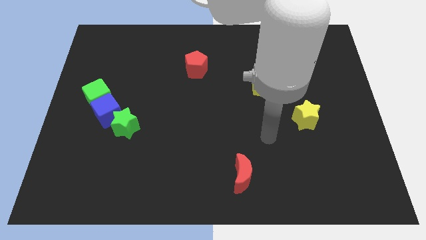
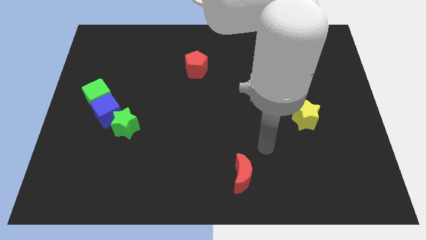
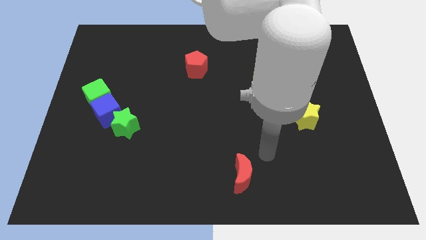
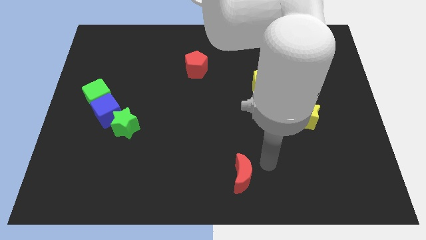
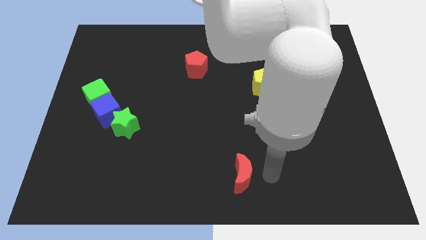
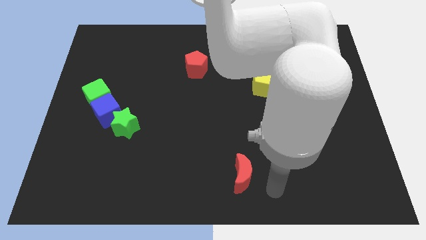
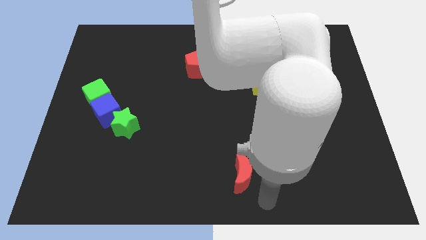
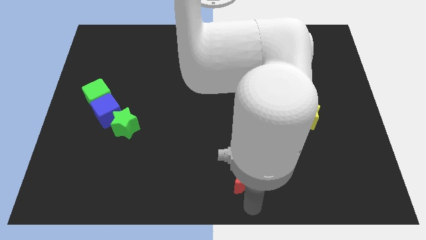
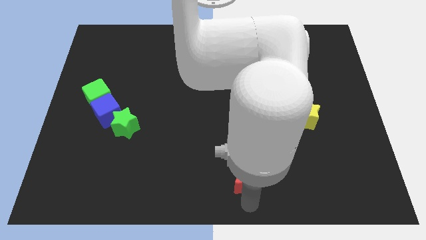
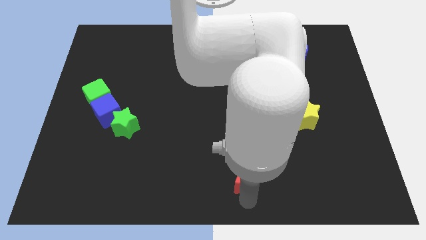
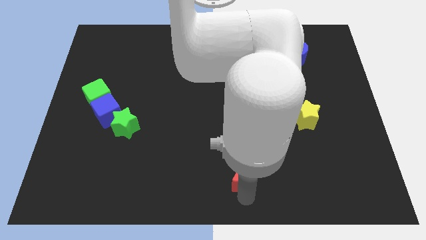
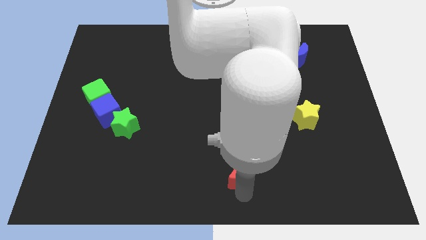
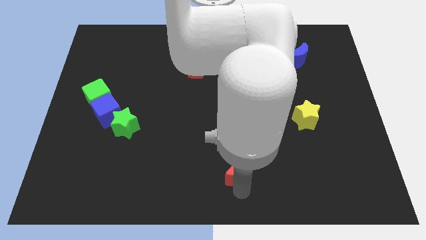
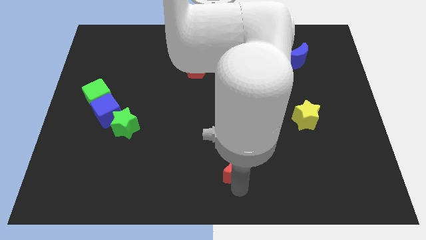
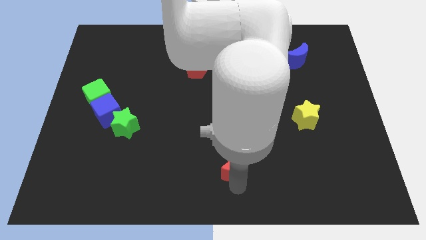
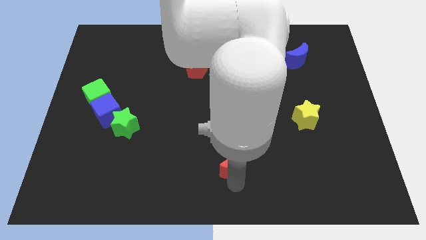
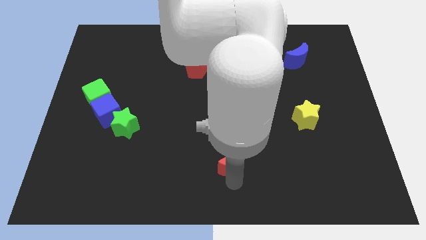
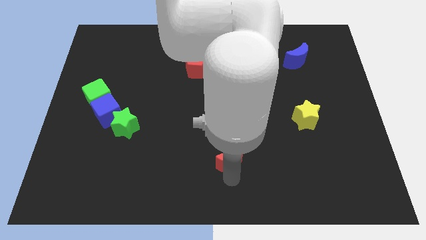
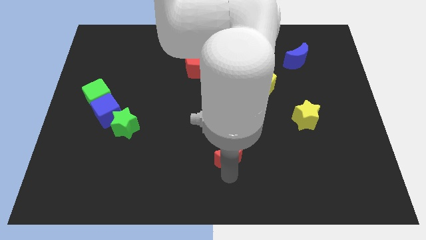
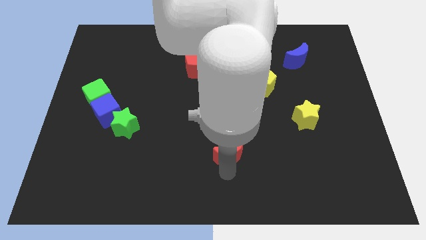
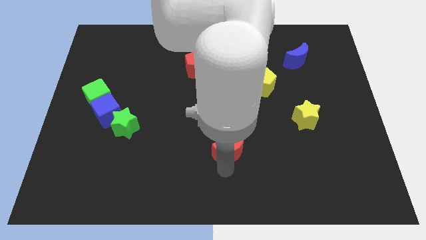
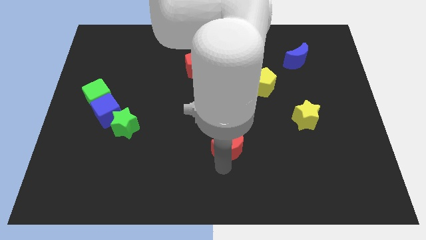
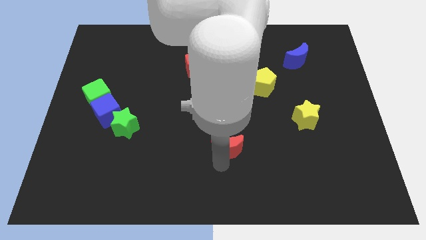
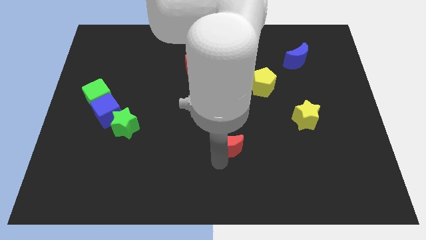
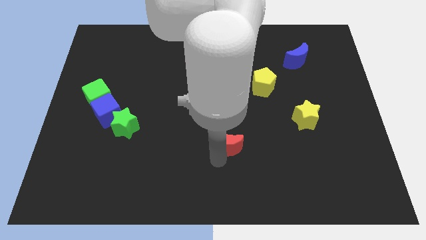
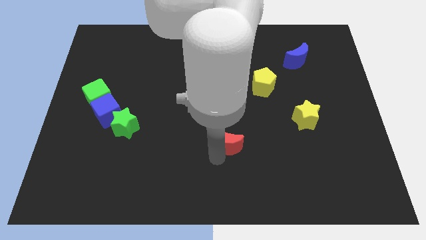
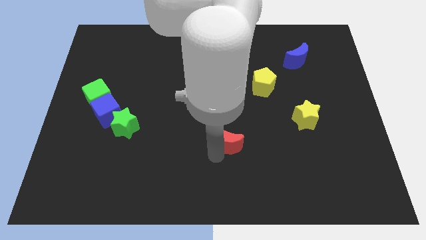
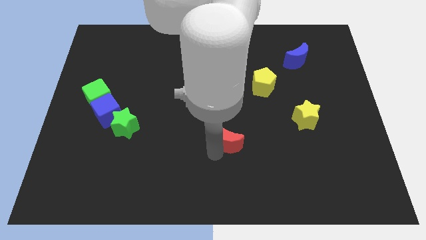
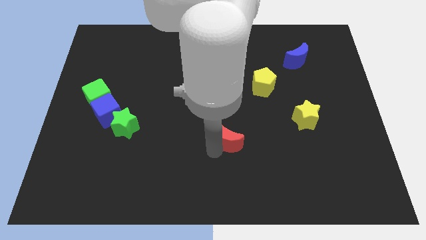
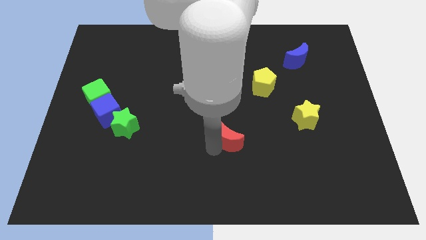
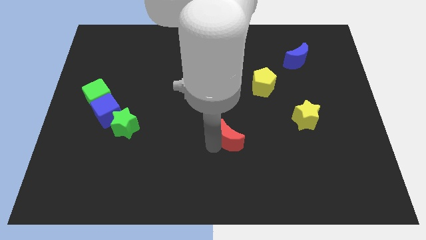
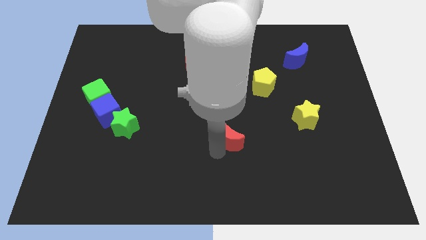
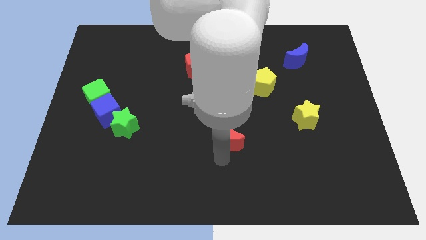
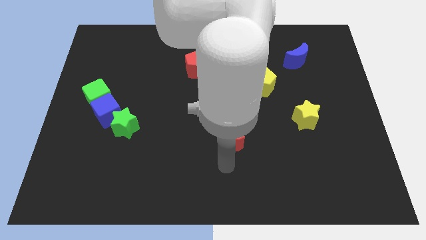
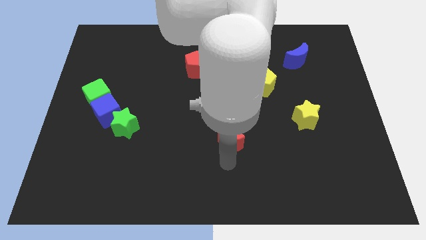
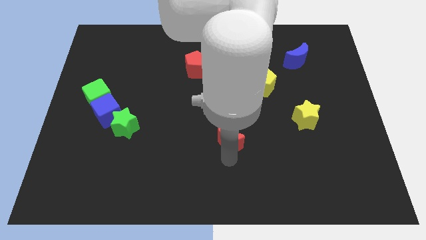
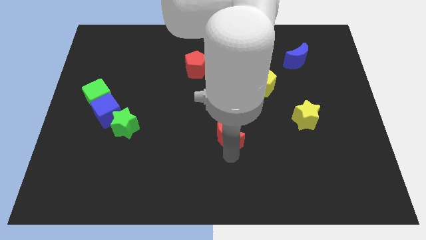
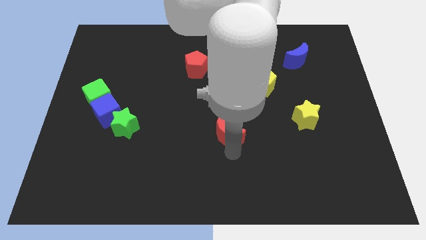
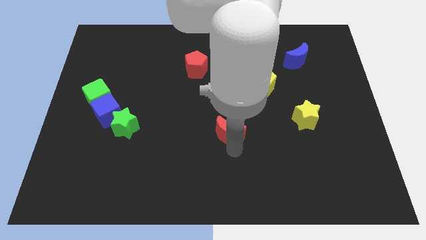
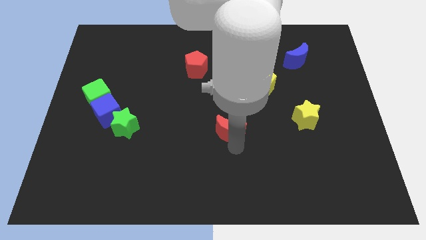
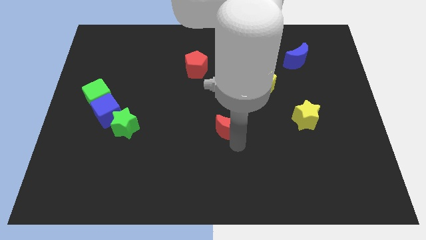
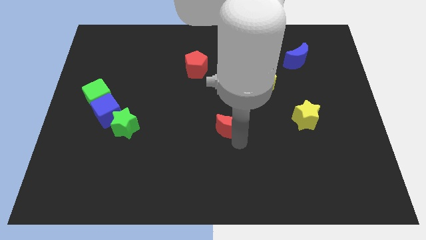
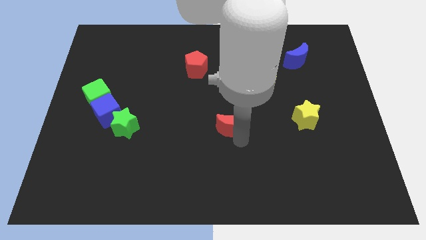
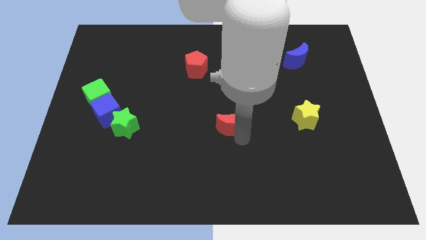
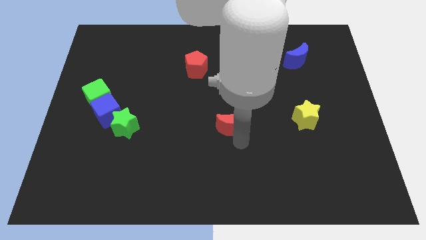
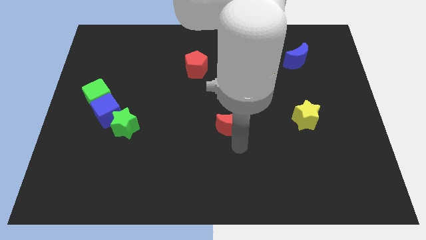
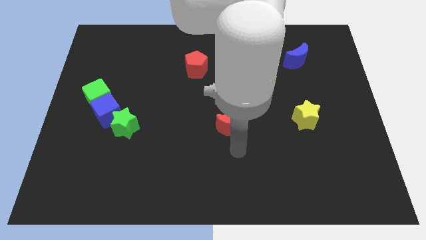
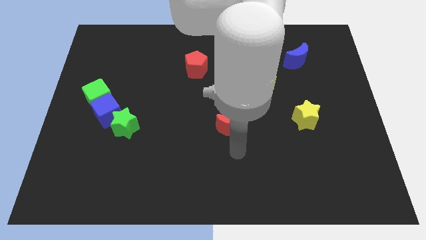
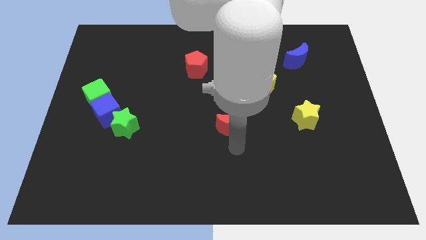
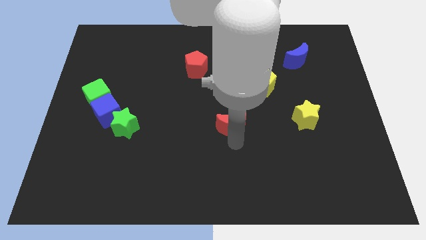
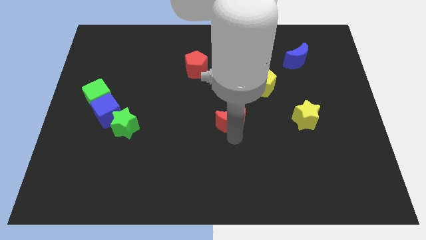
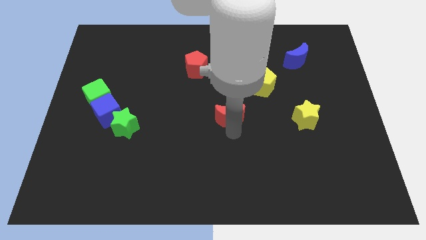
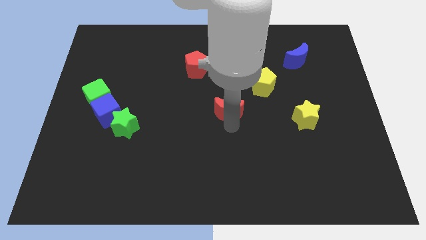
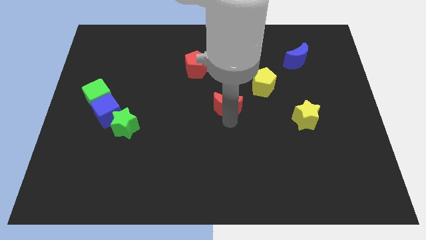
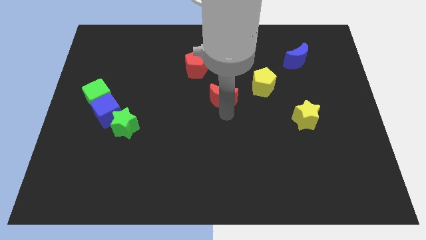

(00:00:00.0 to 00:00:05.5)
slide the red moon upwards

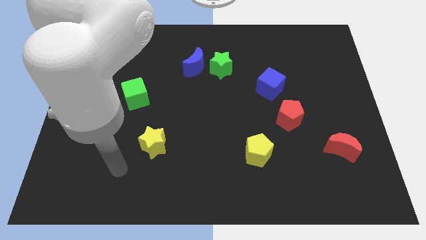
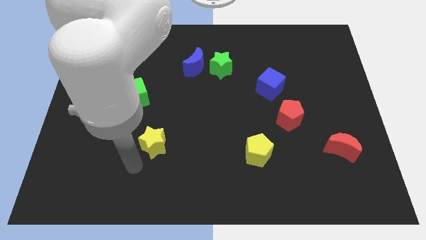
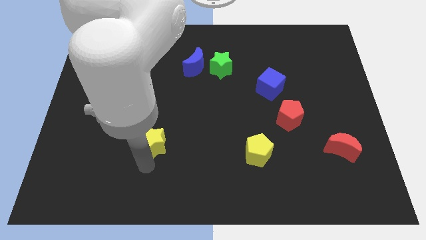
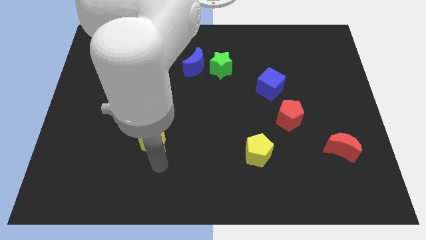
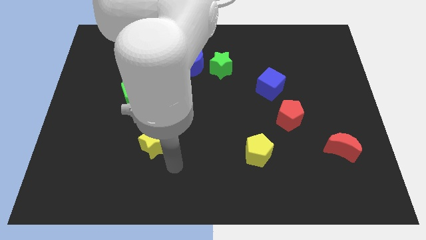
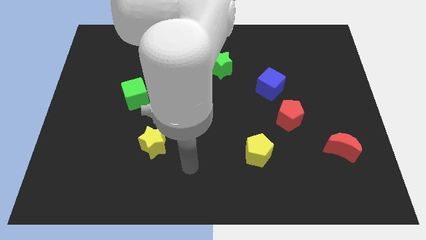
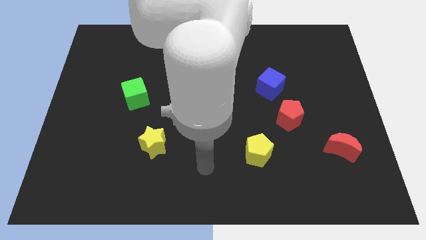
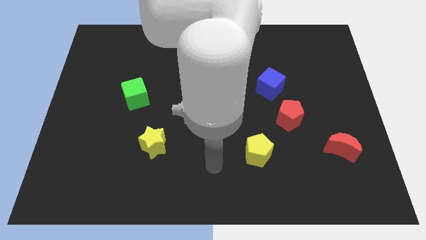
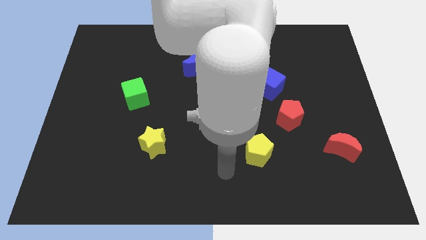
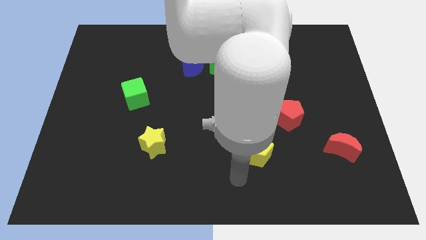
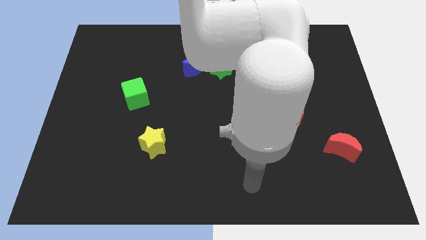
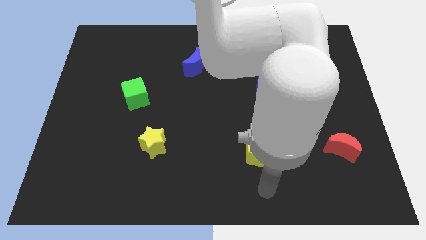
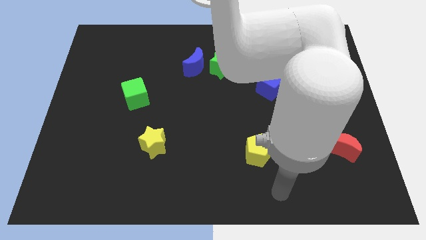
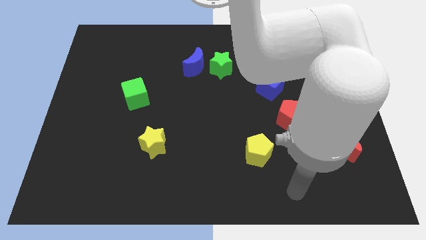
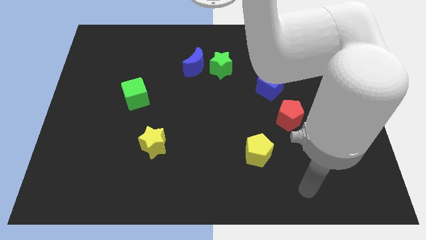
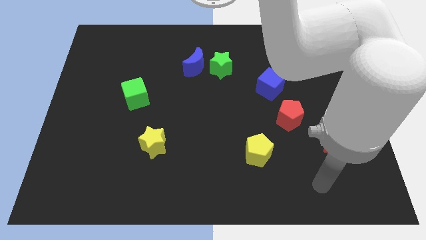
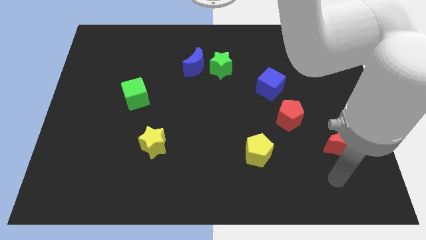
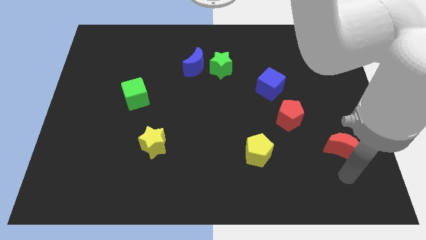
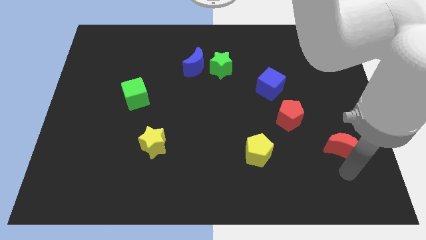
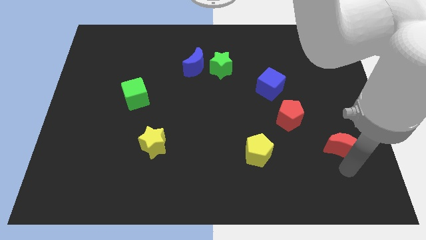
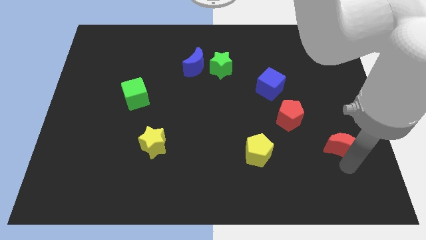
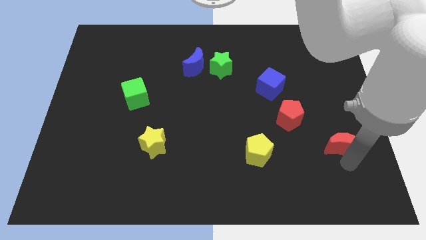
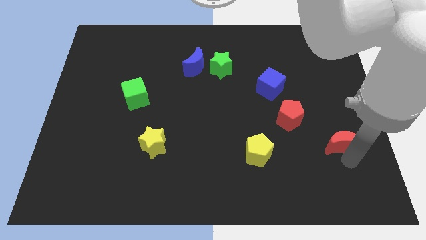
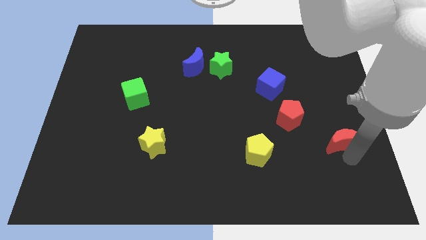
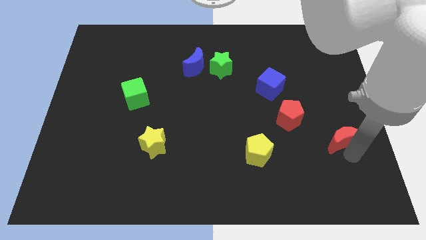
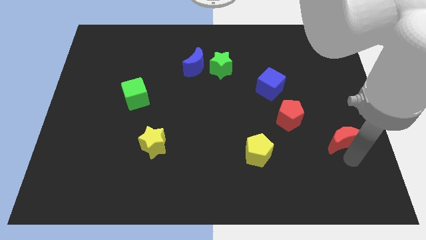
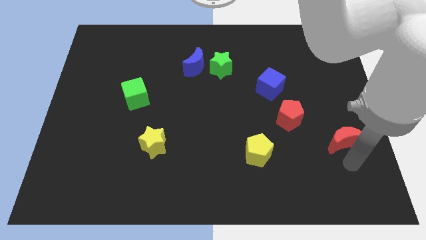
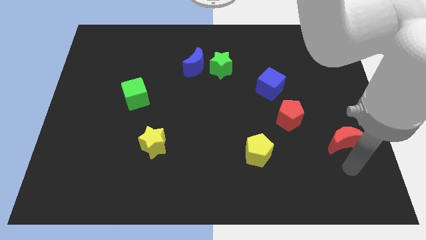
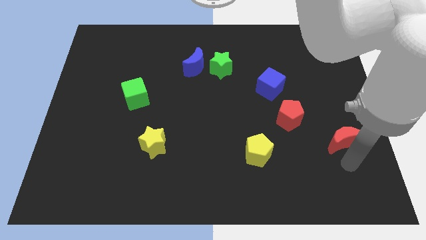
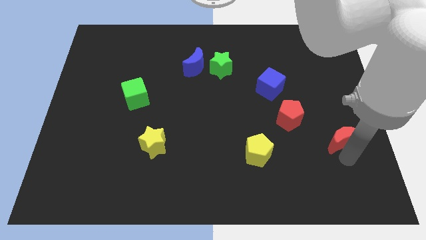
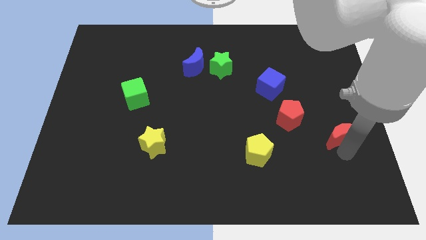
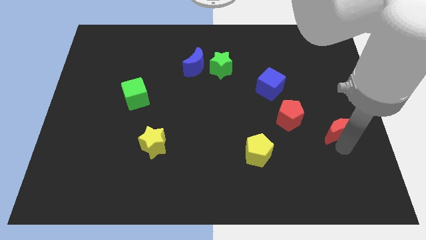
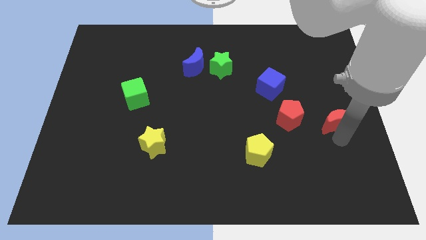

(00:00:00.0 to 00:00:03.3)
slightly slide the red moon upwards
